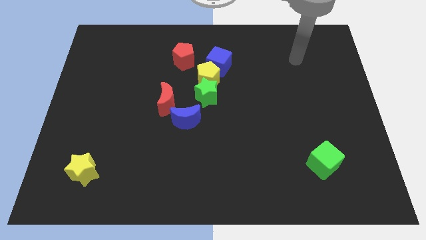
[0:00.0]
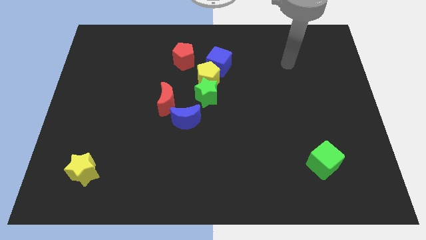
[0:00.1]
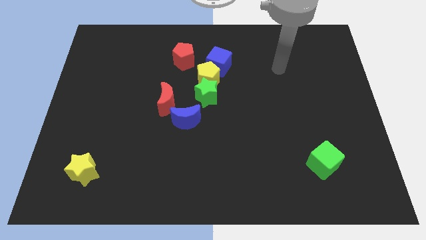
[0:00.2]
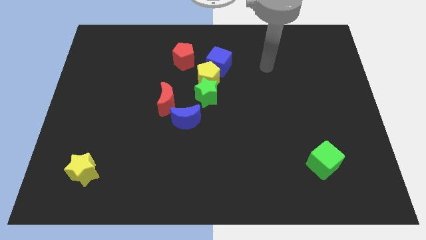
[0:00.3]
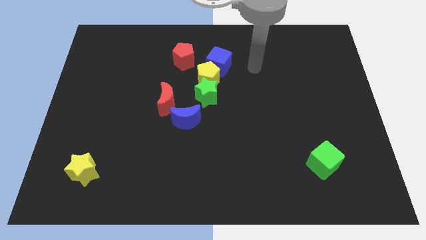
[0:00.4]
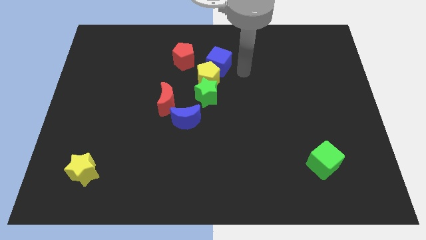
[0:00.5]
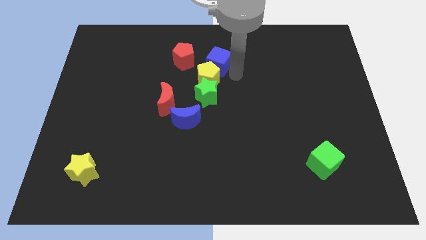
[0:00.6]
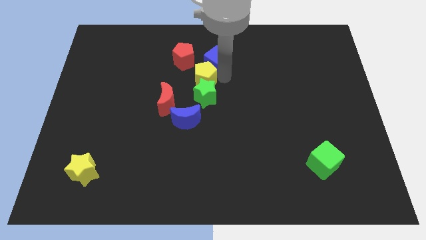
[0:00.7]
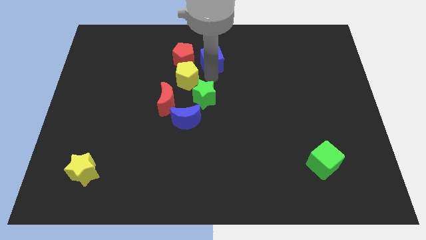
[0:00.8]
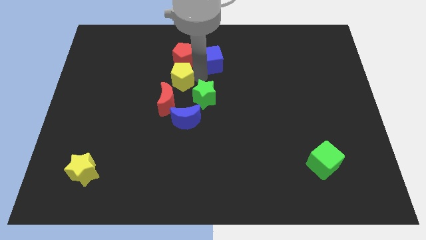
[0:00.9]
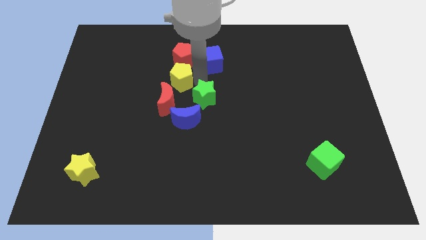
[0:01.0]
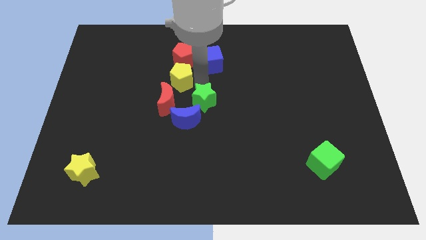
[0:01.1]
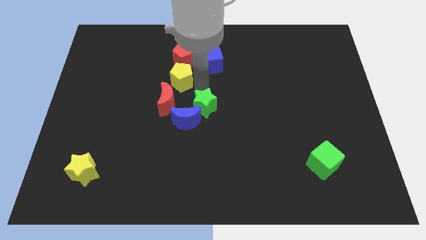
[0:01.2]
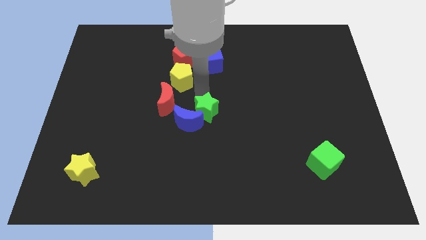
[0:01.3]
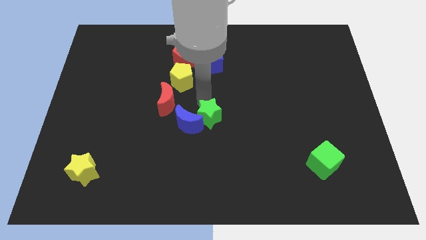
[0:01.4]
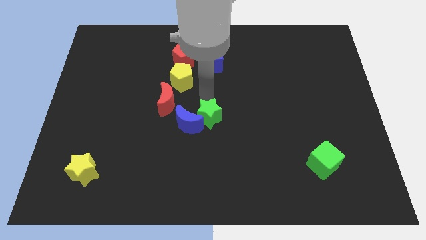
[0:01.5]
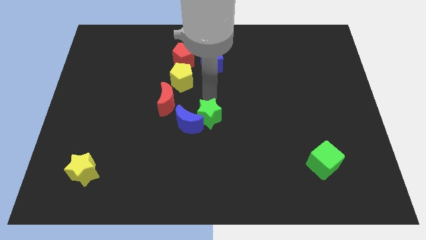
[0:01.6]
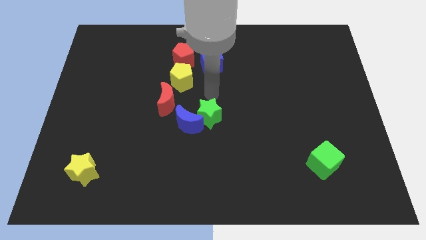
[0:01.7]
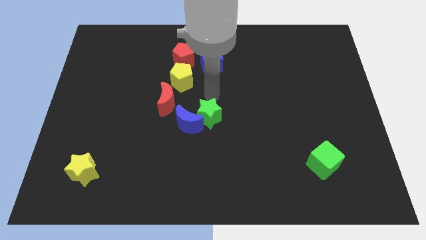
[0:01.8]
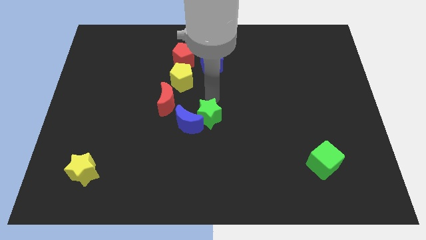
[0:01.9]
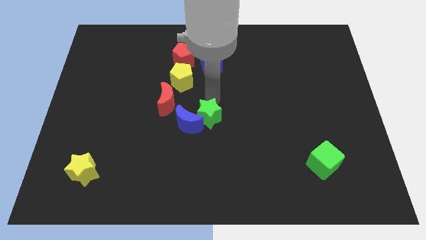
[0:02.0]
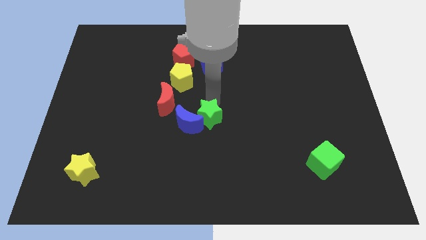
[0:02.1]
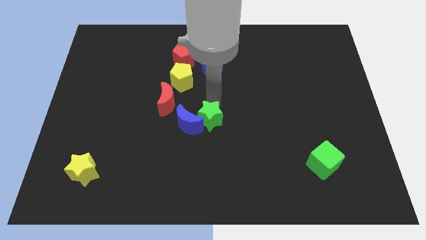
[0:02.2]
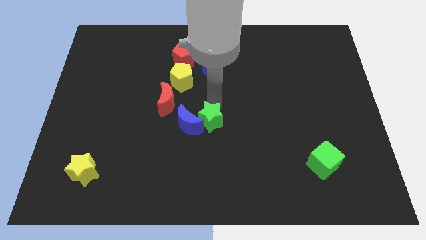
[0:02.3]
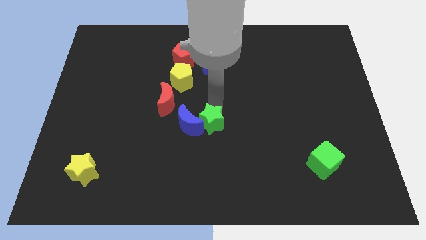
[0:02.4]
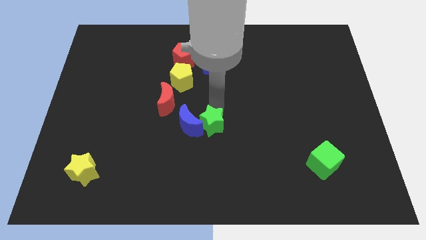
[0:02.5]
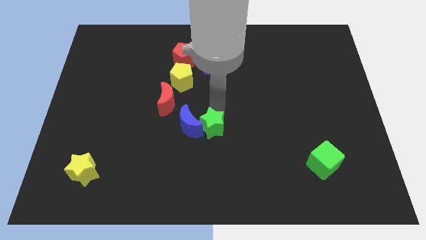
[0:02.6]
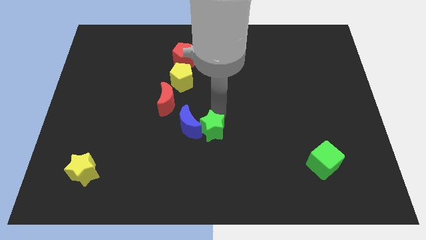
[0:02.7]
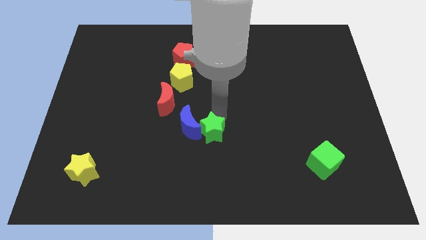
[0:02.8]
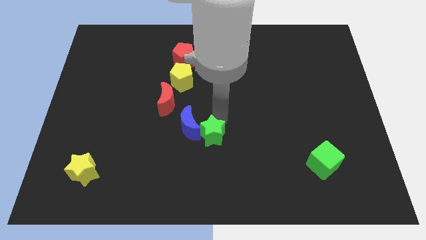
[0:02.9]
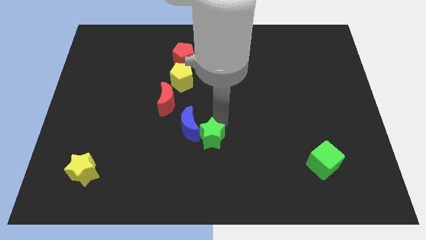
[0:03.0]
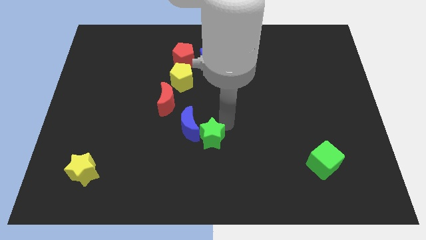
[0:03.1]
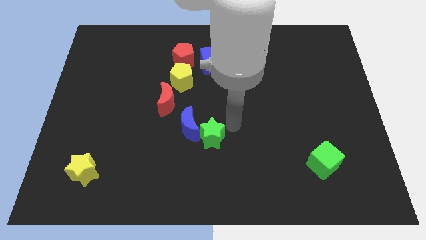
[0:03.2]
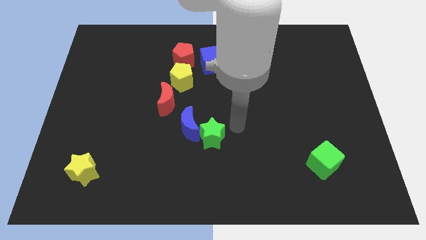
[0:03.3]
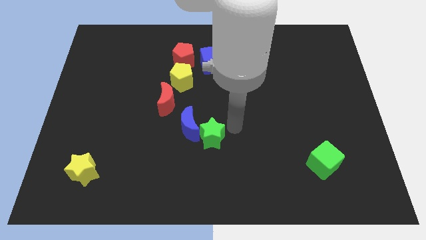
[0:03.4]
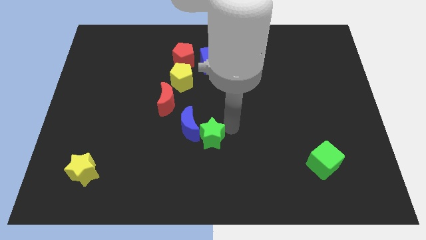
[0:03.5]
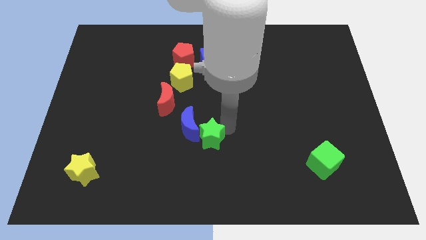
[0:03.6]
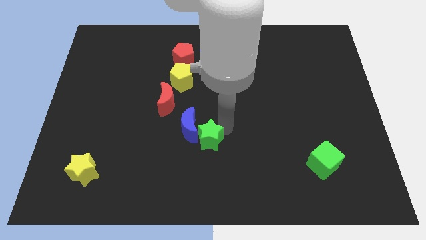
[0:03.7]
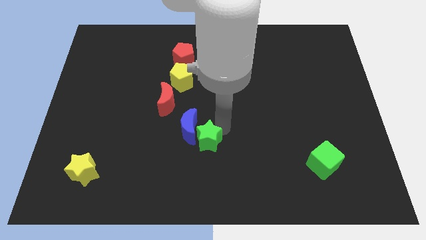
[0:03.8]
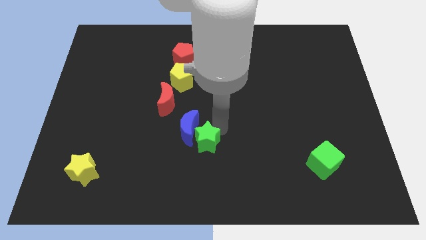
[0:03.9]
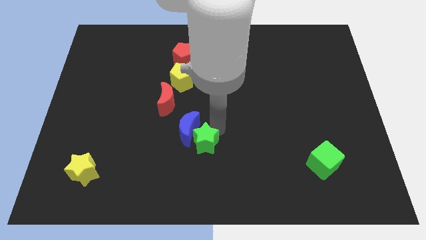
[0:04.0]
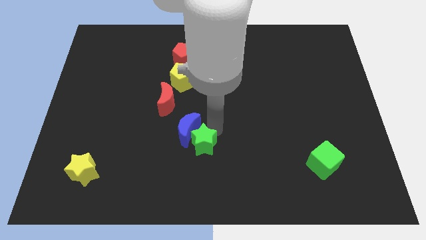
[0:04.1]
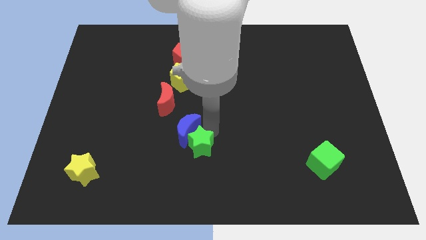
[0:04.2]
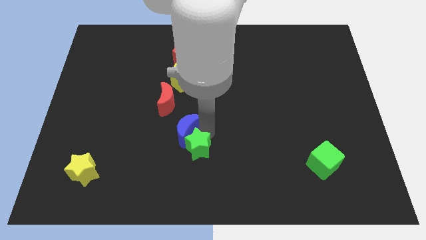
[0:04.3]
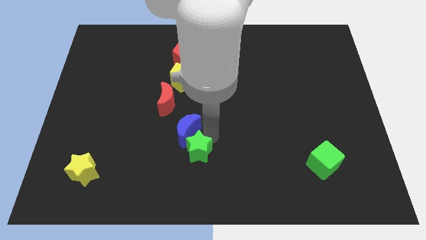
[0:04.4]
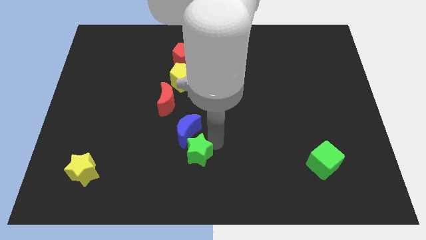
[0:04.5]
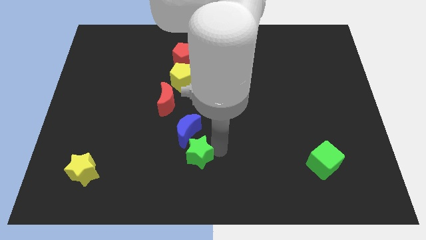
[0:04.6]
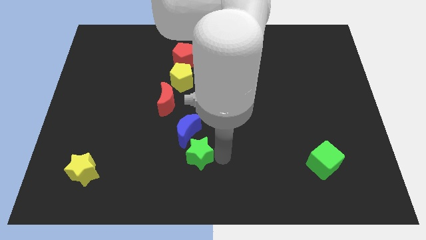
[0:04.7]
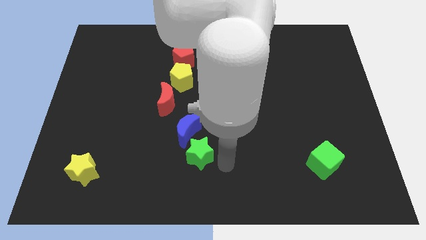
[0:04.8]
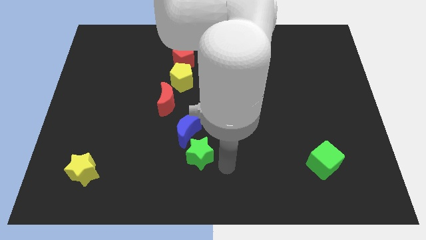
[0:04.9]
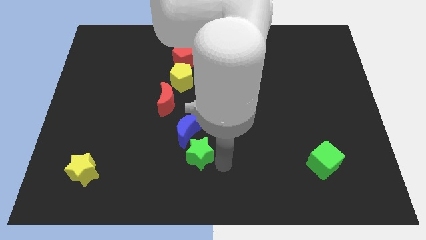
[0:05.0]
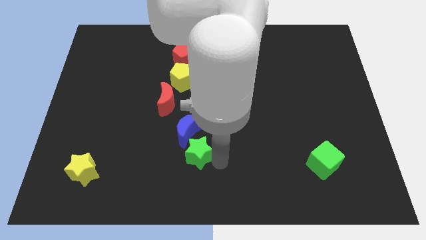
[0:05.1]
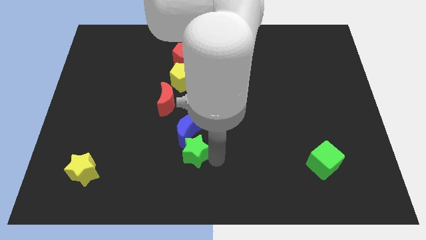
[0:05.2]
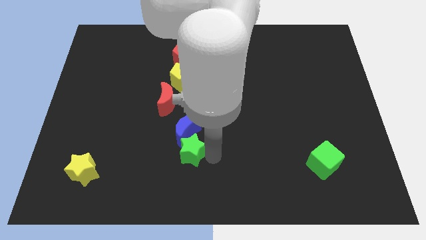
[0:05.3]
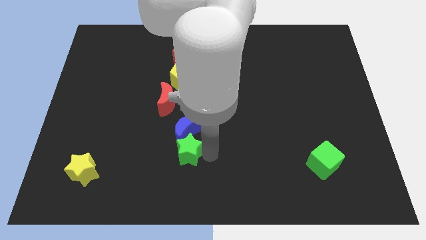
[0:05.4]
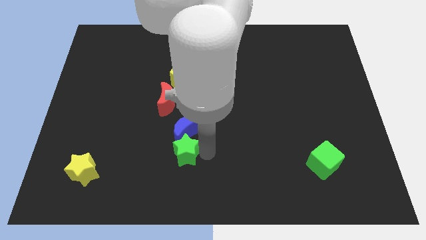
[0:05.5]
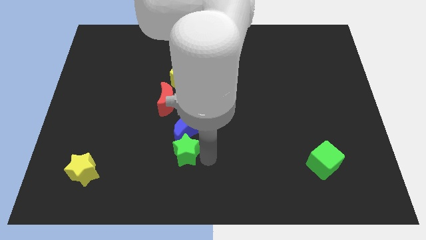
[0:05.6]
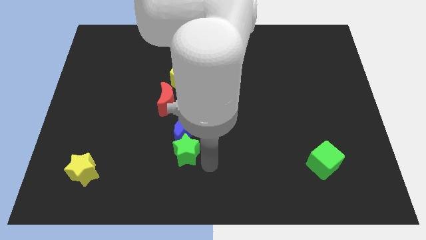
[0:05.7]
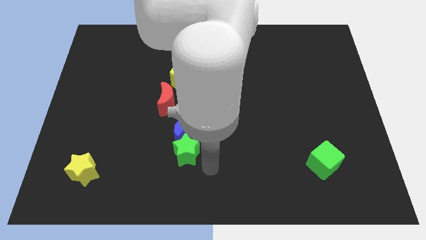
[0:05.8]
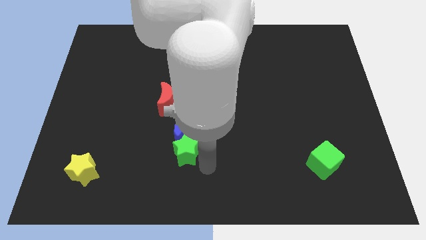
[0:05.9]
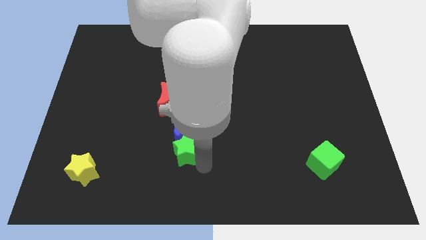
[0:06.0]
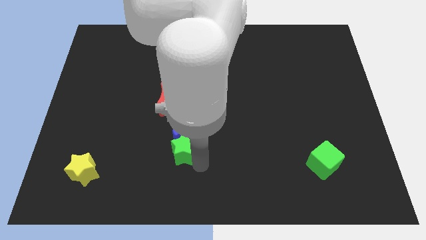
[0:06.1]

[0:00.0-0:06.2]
push the green star to the bottom side of the red moon

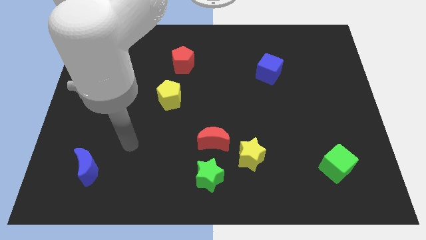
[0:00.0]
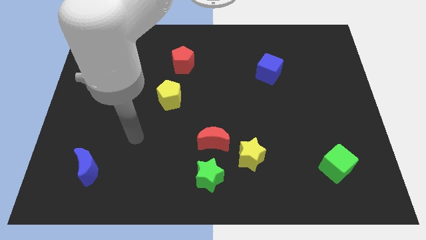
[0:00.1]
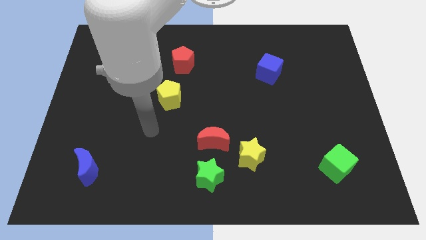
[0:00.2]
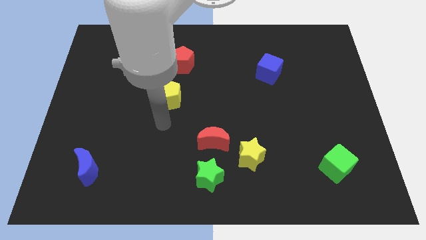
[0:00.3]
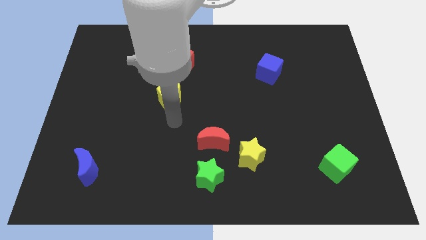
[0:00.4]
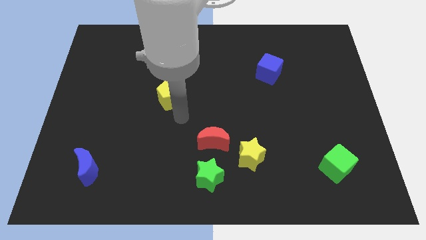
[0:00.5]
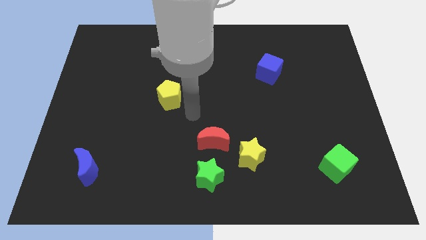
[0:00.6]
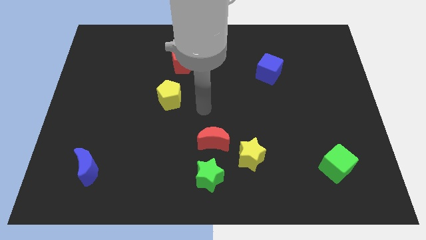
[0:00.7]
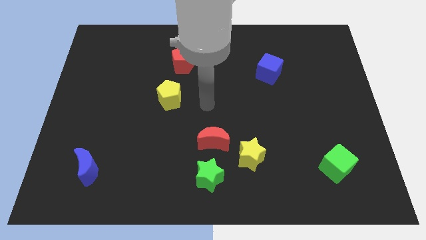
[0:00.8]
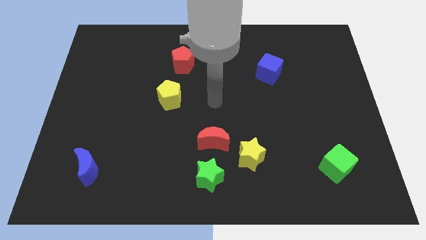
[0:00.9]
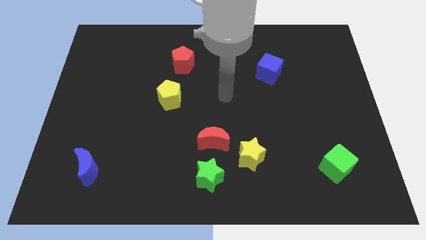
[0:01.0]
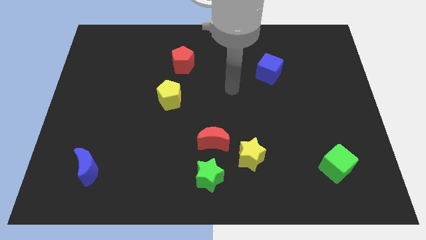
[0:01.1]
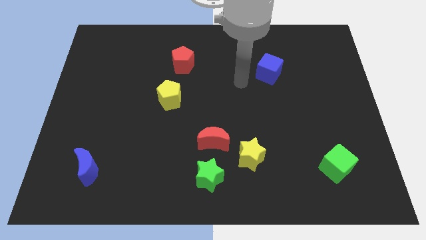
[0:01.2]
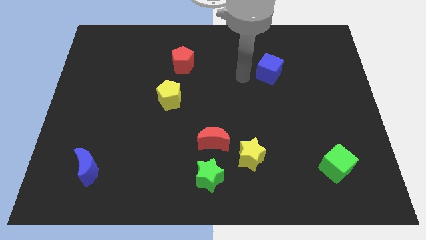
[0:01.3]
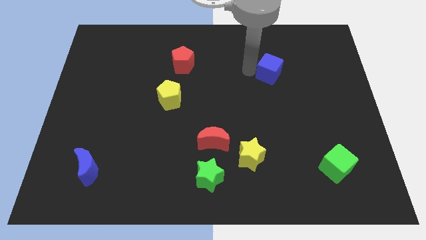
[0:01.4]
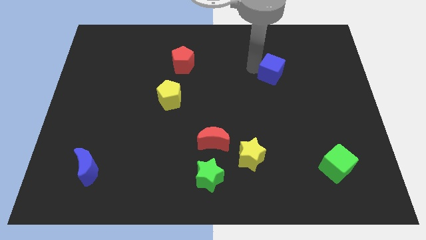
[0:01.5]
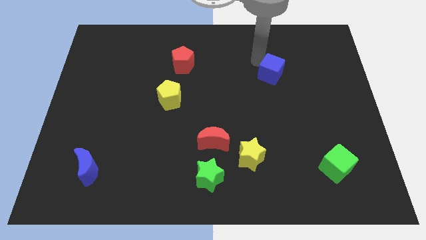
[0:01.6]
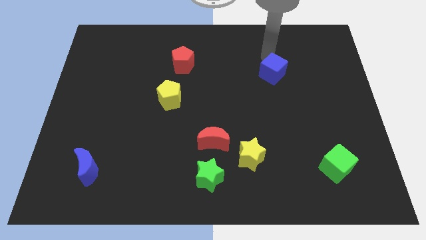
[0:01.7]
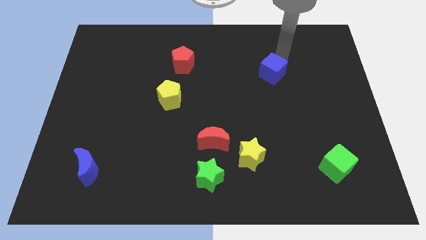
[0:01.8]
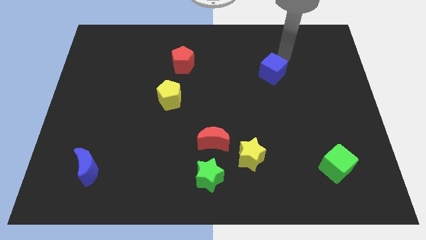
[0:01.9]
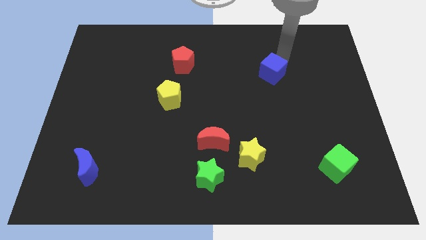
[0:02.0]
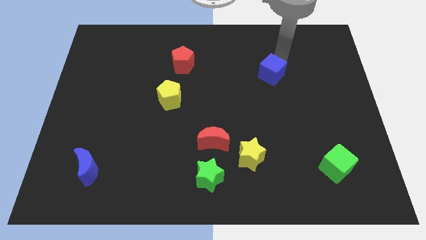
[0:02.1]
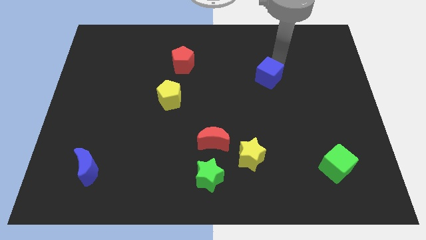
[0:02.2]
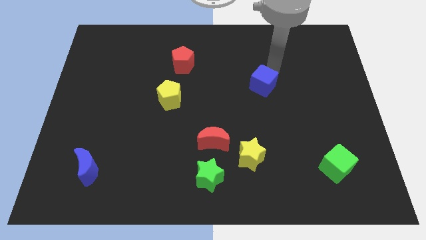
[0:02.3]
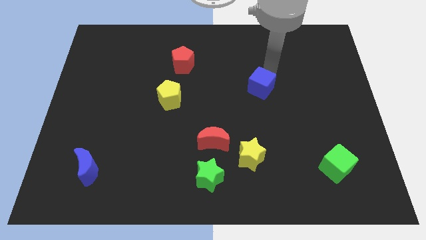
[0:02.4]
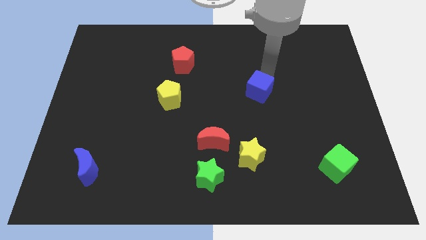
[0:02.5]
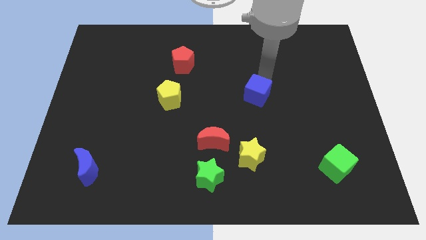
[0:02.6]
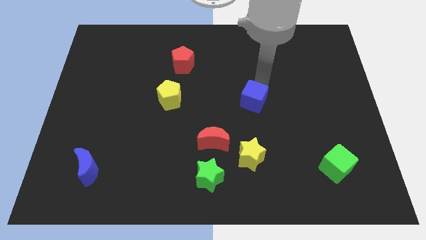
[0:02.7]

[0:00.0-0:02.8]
push the blue cube above the yellow star
